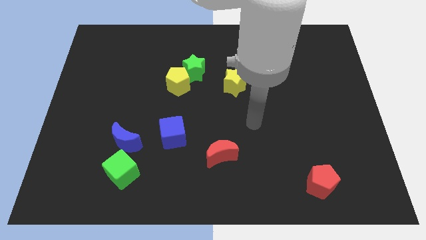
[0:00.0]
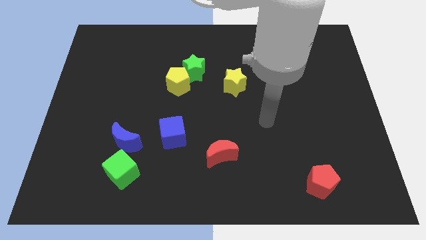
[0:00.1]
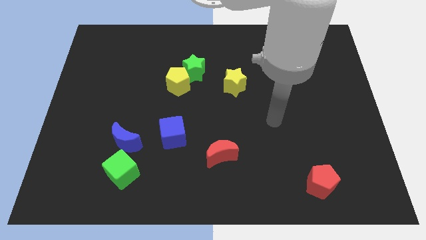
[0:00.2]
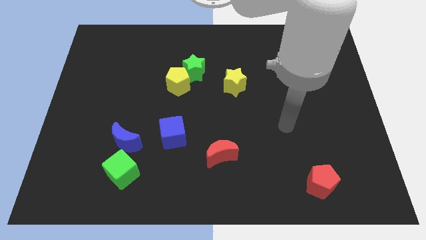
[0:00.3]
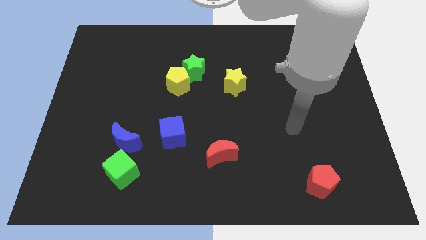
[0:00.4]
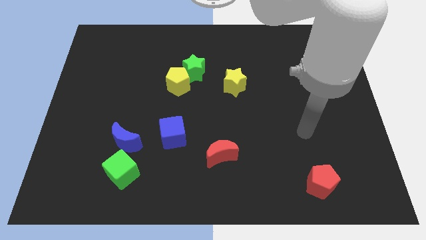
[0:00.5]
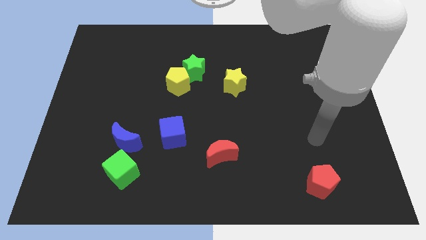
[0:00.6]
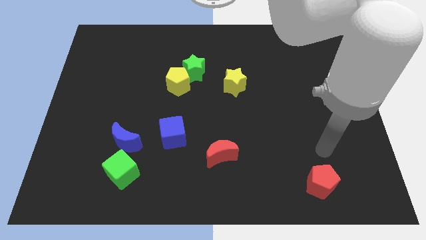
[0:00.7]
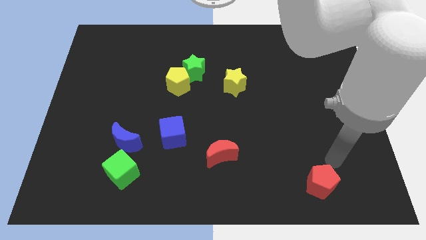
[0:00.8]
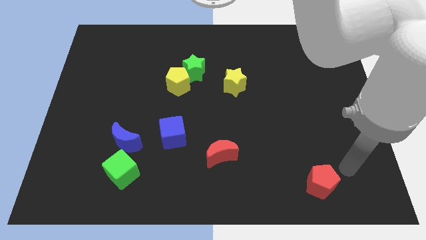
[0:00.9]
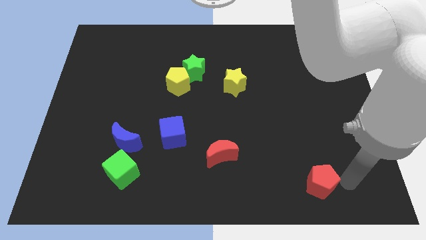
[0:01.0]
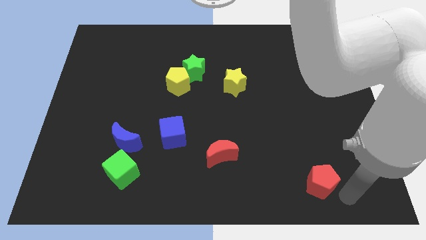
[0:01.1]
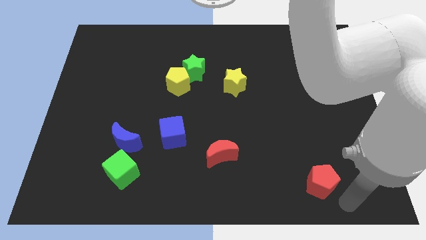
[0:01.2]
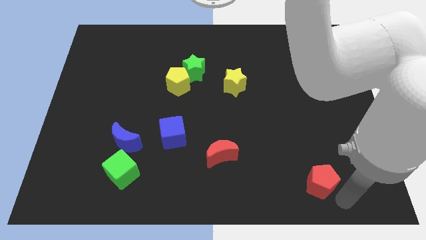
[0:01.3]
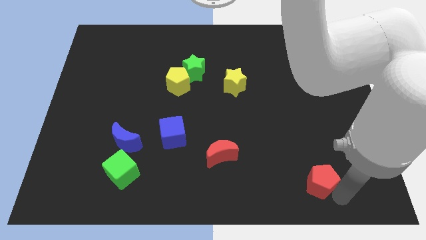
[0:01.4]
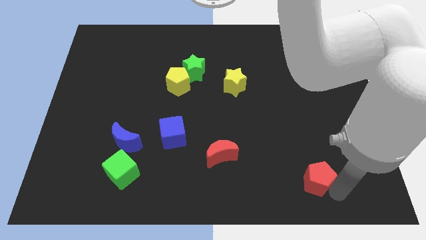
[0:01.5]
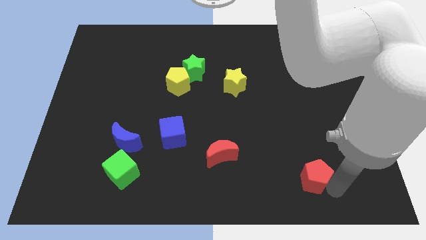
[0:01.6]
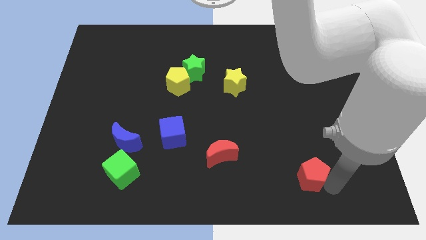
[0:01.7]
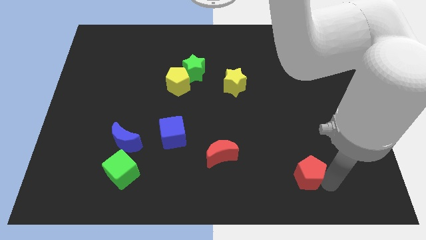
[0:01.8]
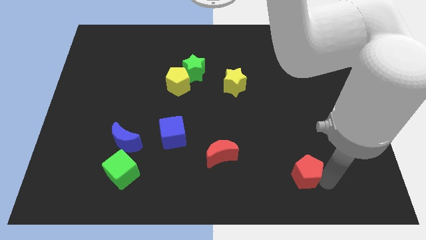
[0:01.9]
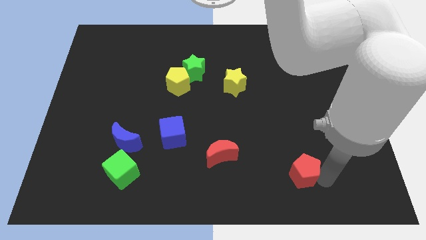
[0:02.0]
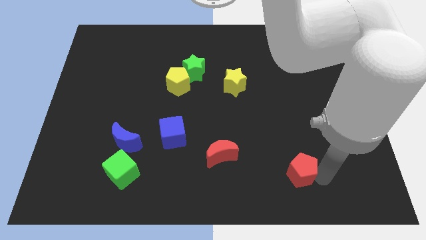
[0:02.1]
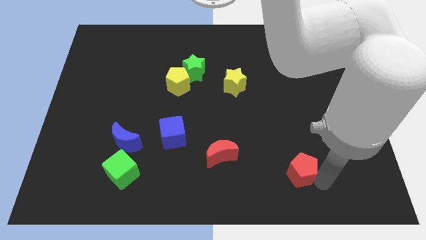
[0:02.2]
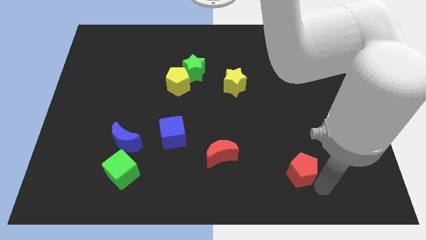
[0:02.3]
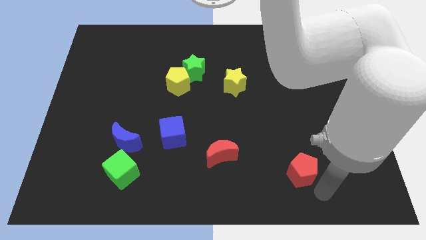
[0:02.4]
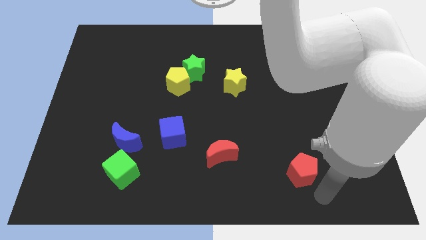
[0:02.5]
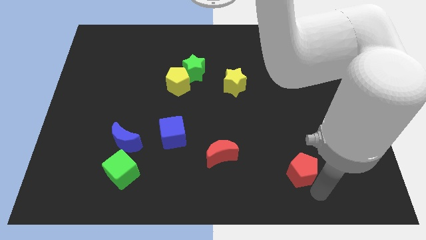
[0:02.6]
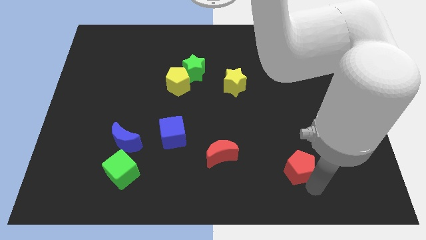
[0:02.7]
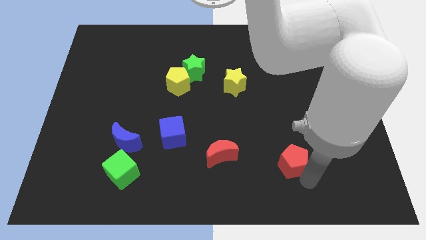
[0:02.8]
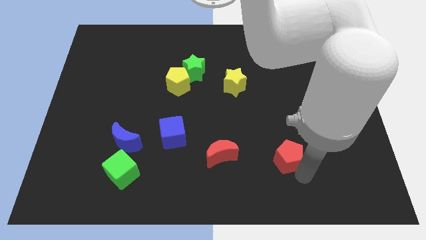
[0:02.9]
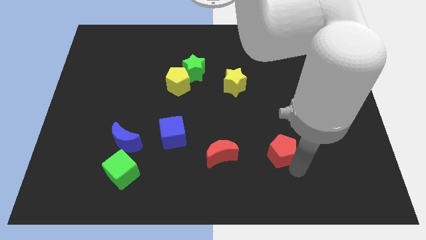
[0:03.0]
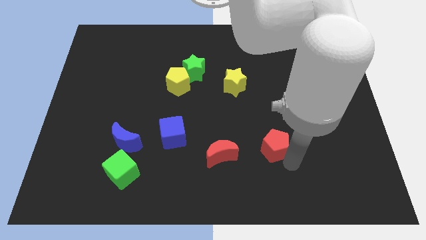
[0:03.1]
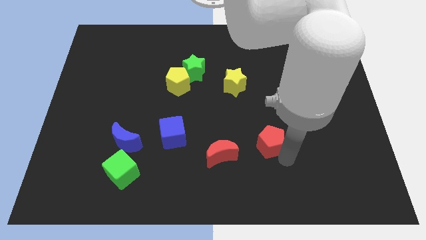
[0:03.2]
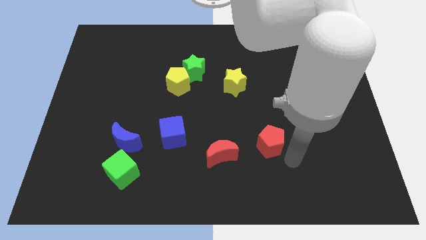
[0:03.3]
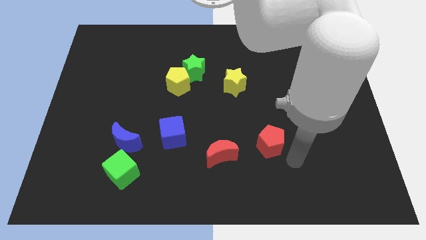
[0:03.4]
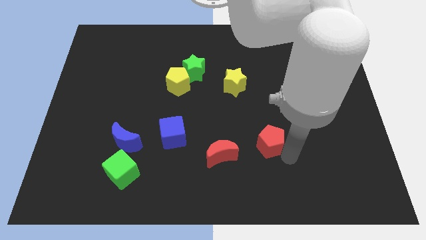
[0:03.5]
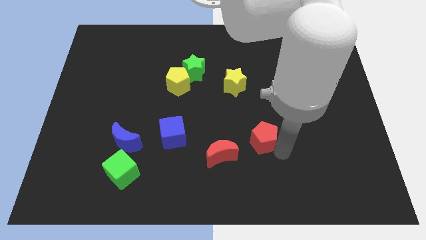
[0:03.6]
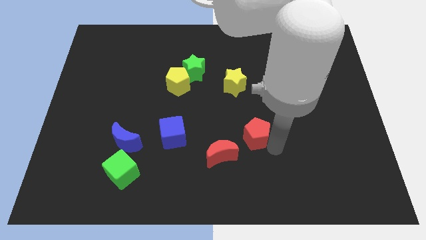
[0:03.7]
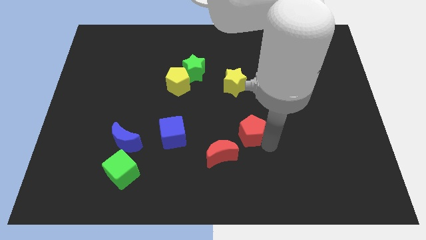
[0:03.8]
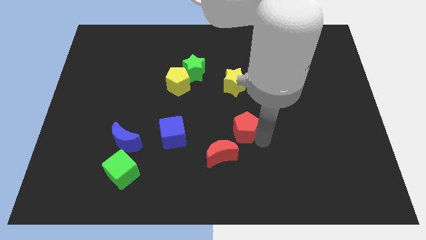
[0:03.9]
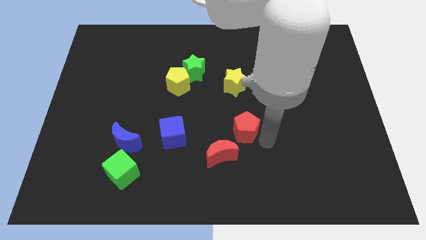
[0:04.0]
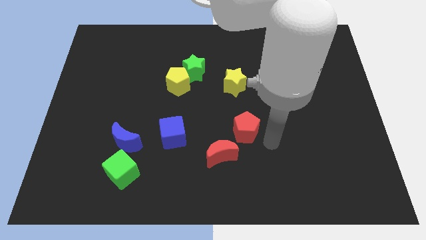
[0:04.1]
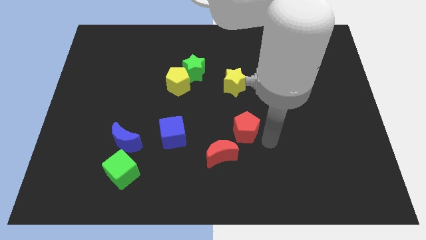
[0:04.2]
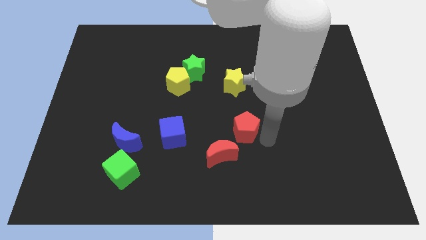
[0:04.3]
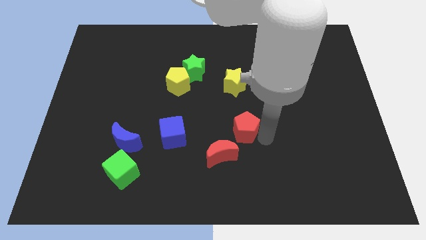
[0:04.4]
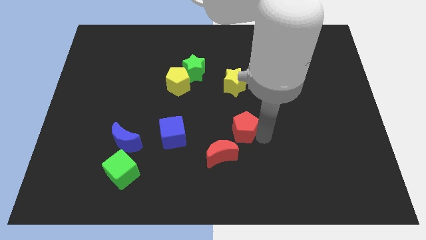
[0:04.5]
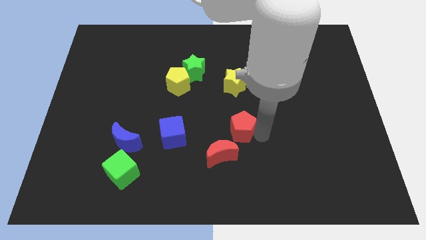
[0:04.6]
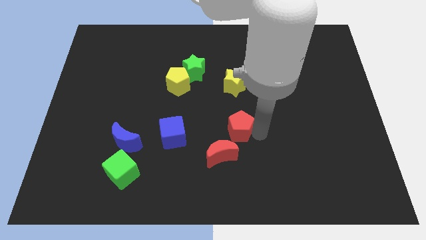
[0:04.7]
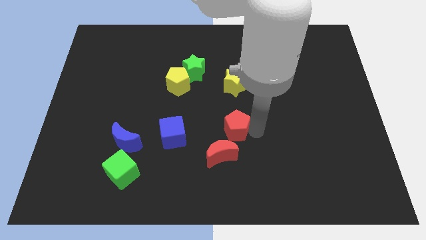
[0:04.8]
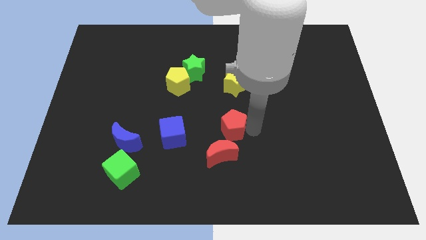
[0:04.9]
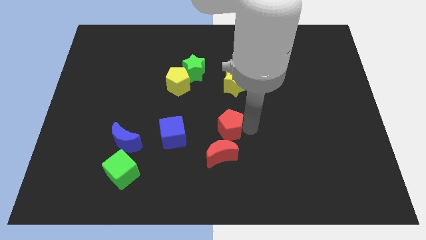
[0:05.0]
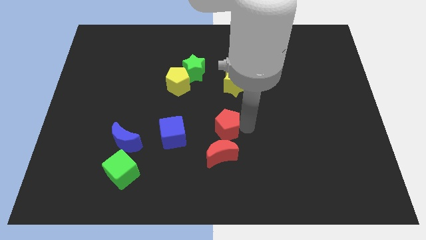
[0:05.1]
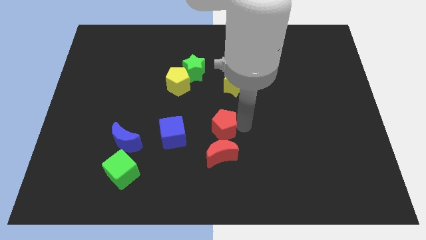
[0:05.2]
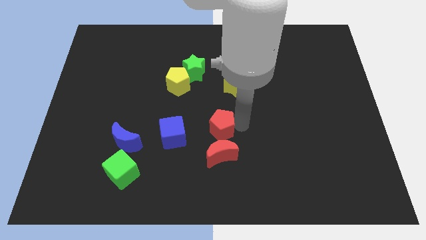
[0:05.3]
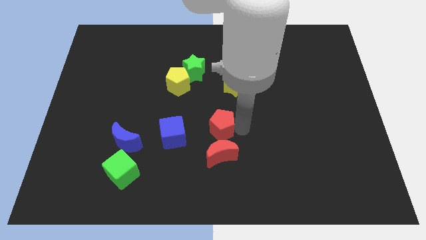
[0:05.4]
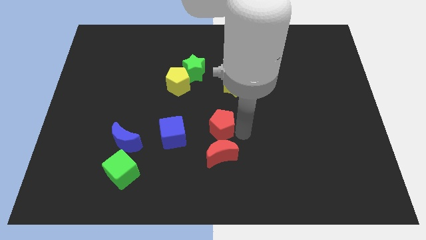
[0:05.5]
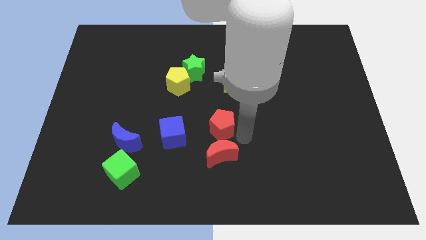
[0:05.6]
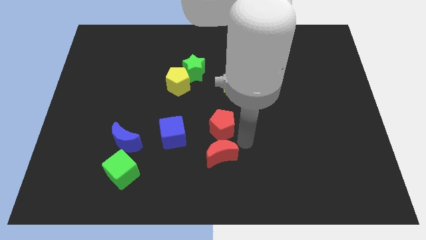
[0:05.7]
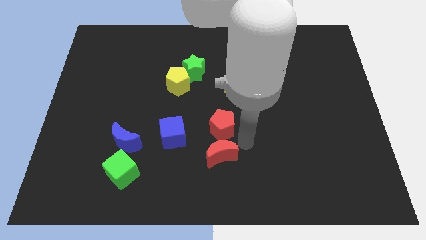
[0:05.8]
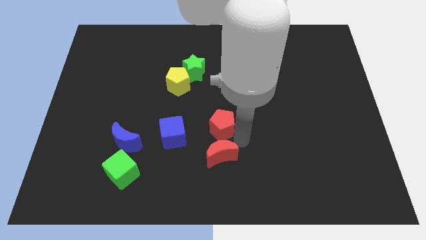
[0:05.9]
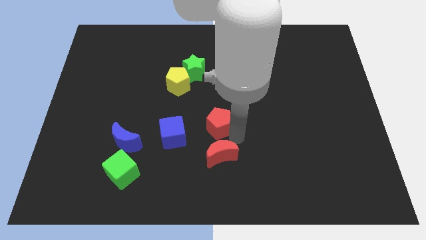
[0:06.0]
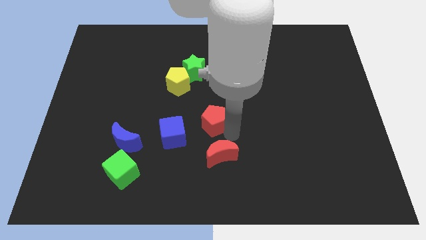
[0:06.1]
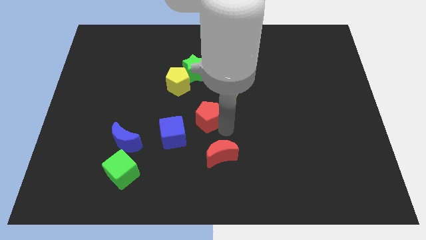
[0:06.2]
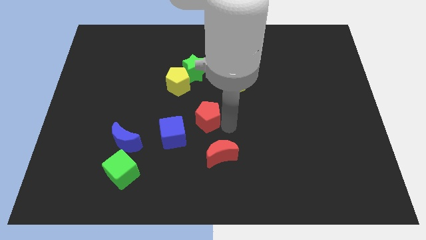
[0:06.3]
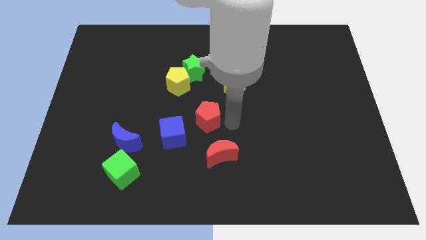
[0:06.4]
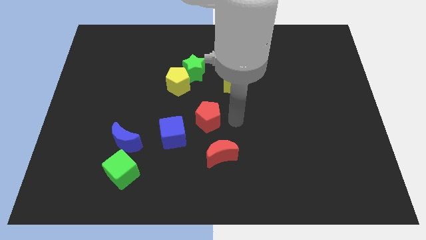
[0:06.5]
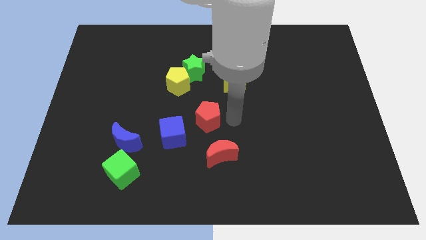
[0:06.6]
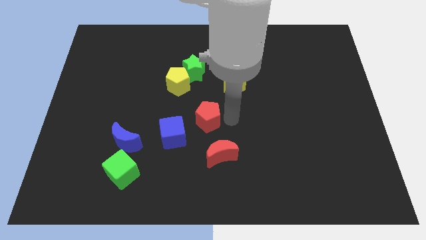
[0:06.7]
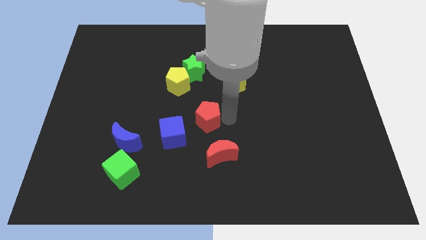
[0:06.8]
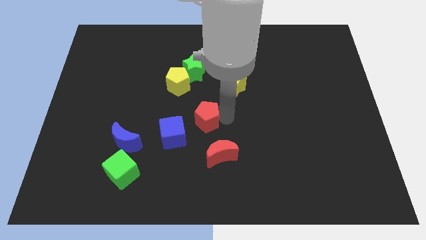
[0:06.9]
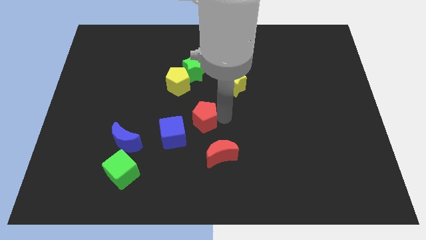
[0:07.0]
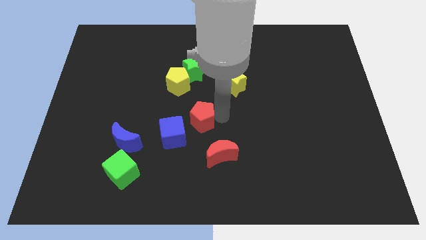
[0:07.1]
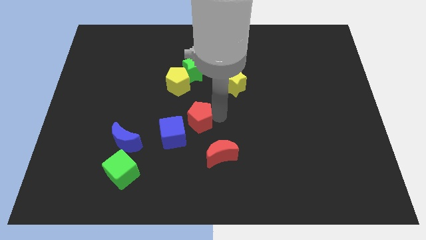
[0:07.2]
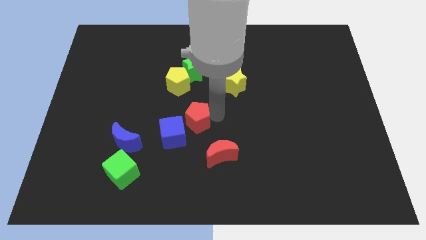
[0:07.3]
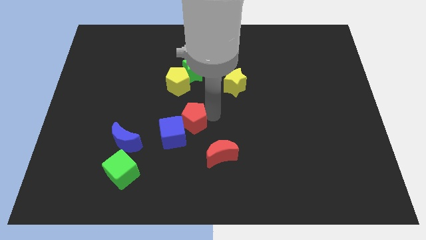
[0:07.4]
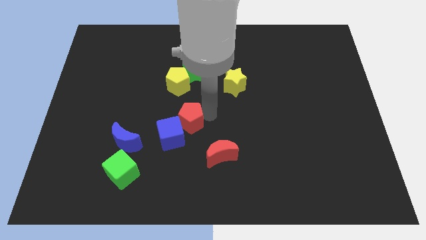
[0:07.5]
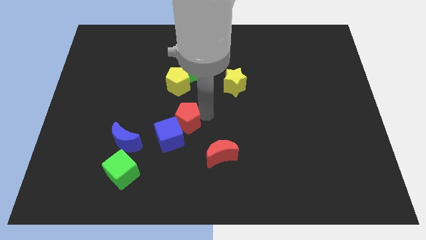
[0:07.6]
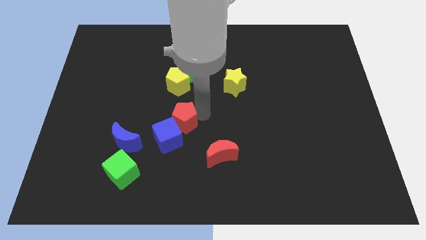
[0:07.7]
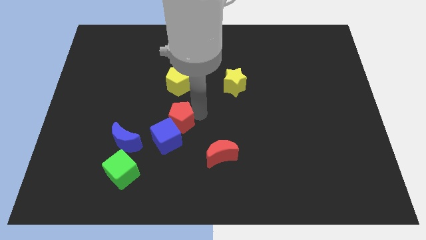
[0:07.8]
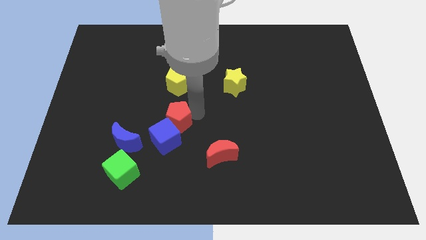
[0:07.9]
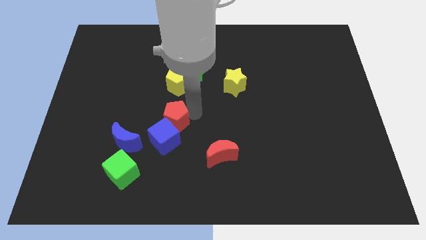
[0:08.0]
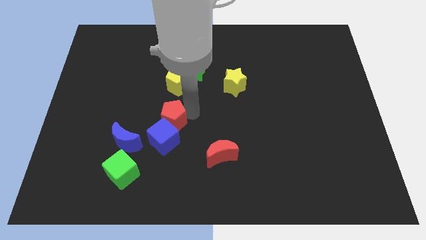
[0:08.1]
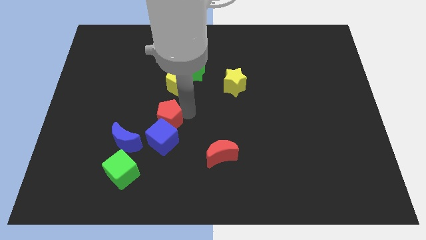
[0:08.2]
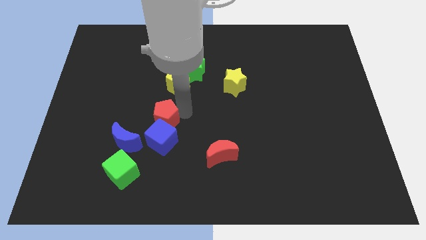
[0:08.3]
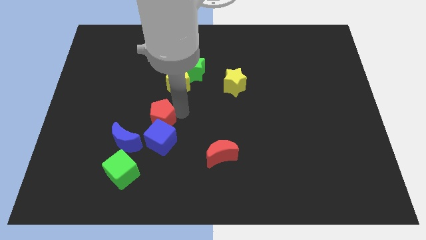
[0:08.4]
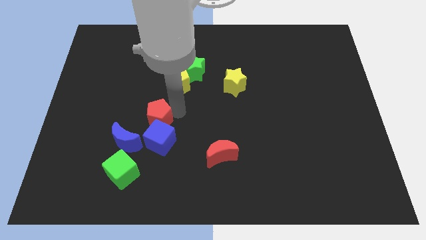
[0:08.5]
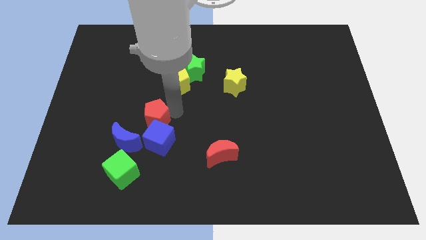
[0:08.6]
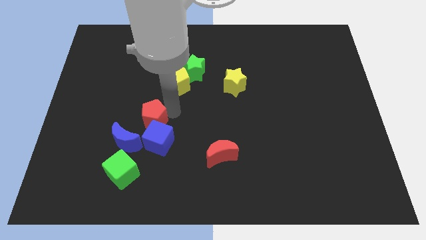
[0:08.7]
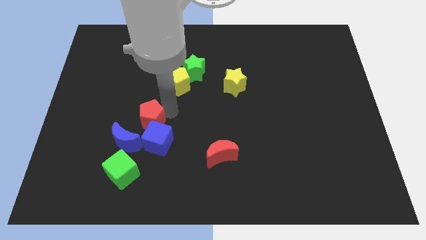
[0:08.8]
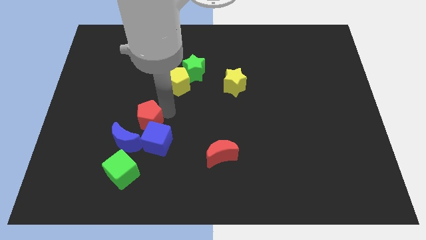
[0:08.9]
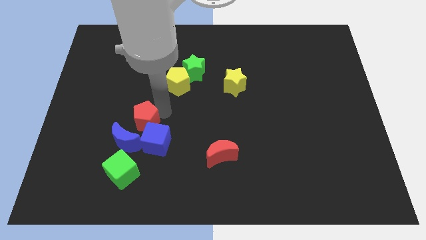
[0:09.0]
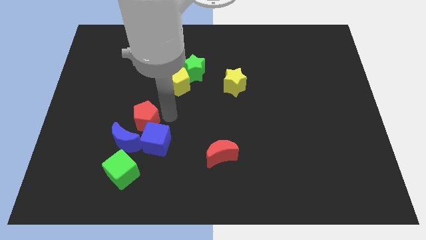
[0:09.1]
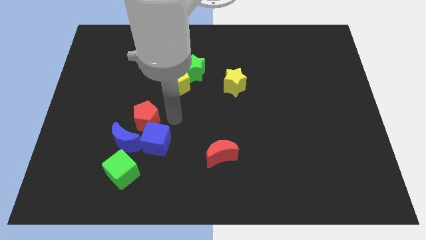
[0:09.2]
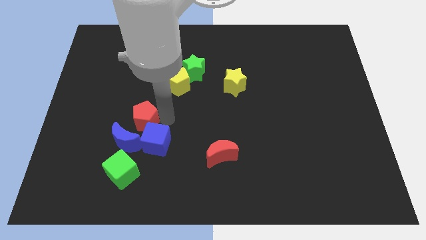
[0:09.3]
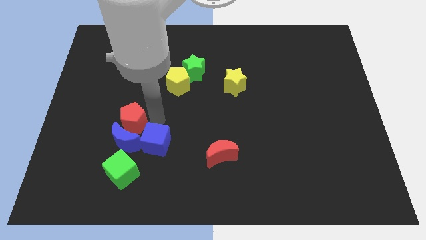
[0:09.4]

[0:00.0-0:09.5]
move the red pentagon diagonally up and to the left of the blue moon
